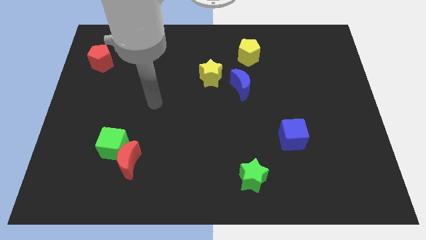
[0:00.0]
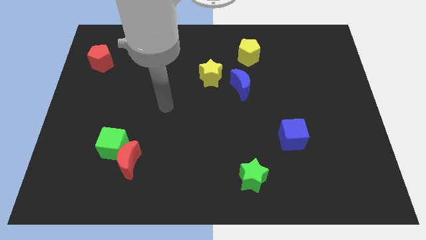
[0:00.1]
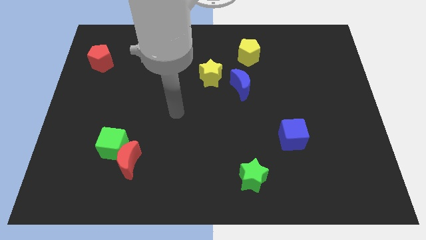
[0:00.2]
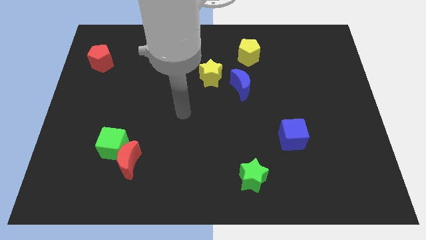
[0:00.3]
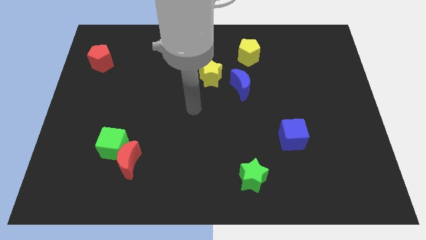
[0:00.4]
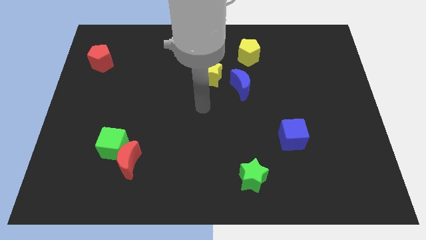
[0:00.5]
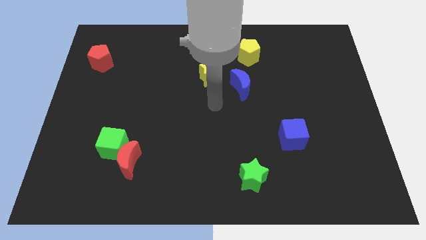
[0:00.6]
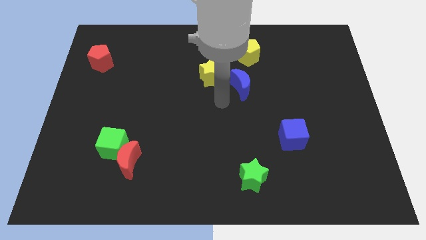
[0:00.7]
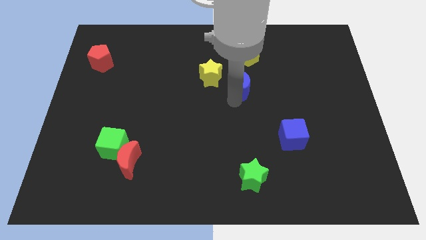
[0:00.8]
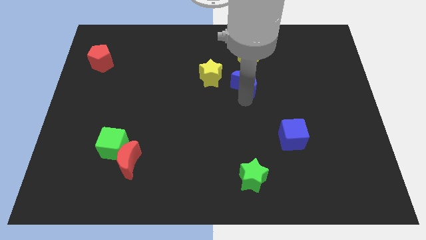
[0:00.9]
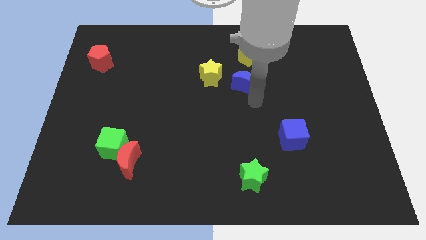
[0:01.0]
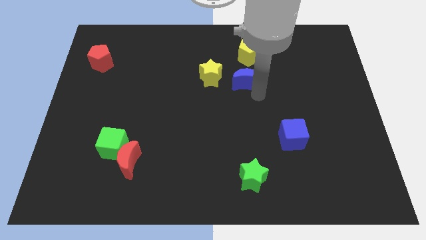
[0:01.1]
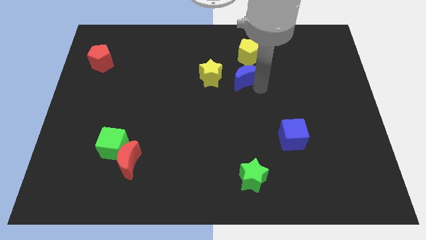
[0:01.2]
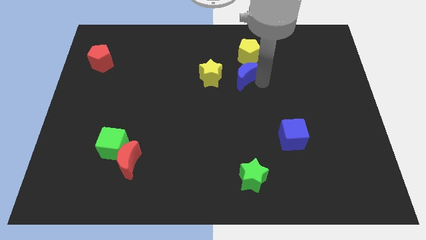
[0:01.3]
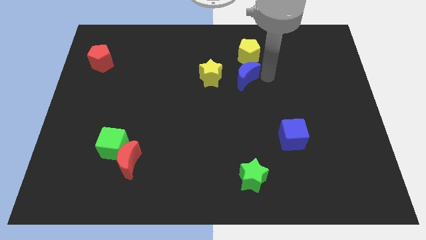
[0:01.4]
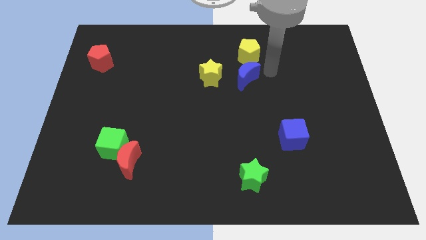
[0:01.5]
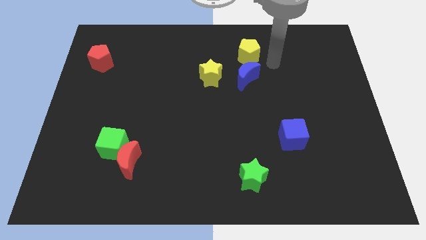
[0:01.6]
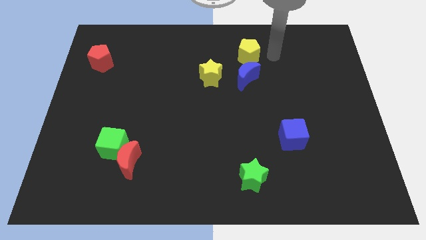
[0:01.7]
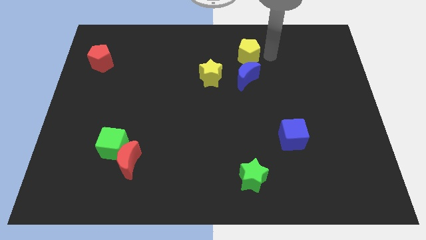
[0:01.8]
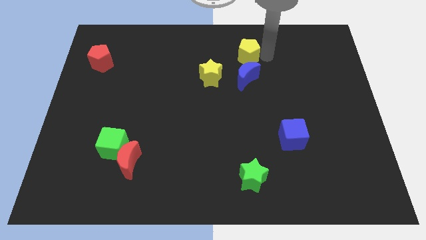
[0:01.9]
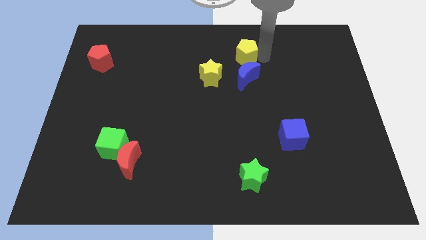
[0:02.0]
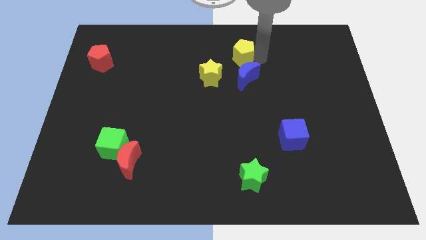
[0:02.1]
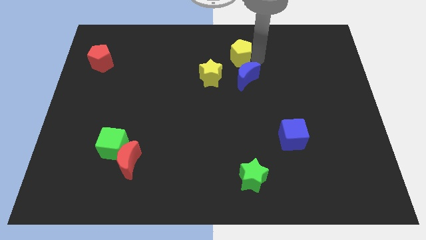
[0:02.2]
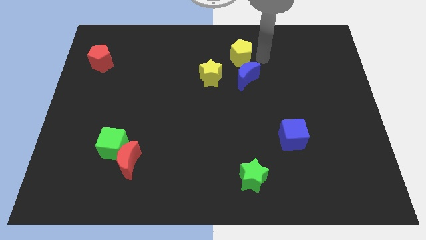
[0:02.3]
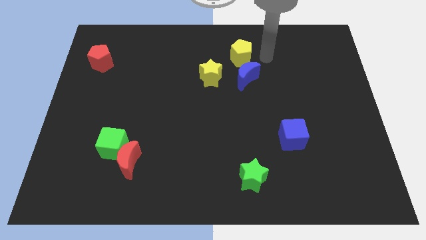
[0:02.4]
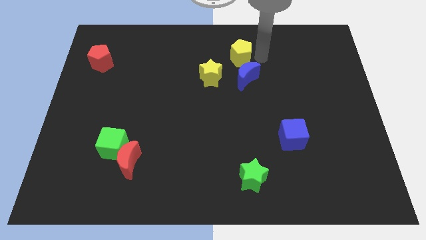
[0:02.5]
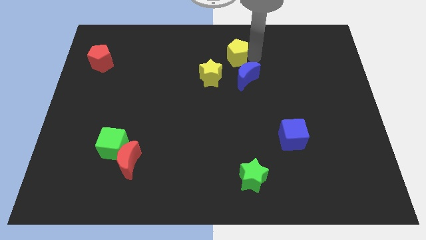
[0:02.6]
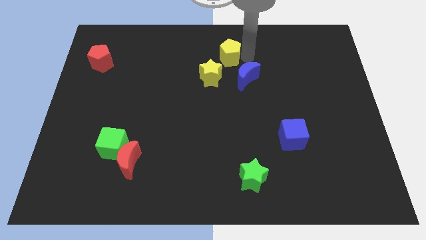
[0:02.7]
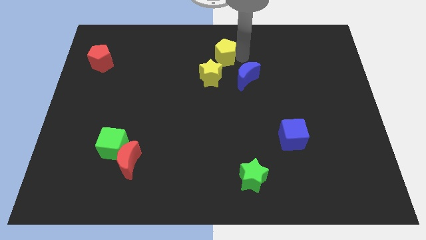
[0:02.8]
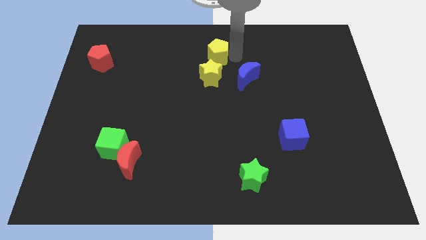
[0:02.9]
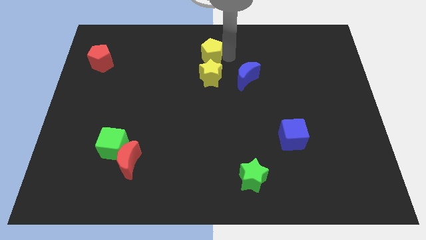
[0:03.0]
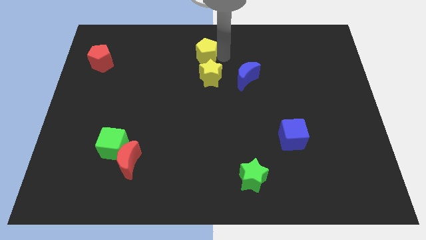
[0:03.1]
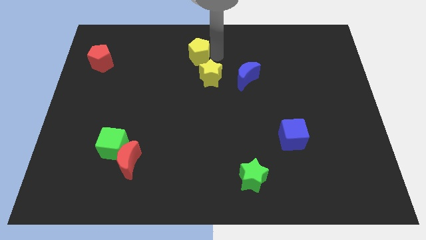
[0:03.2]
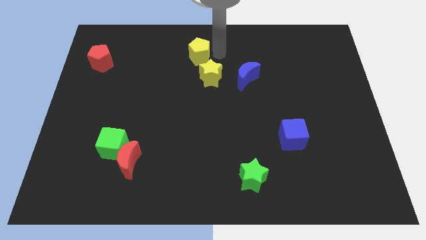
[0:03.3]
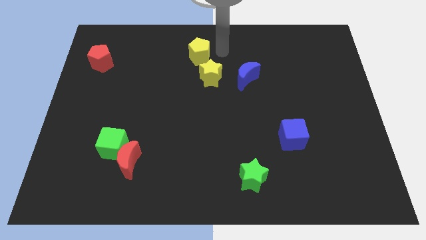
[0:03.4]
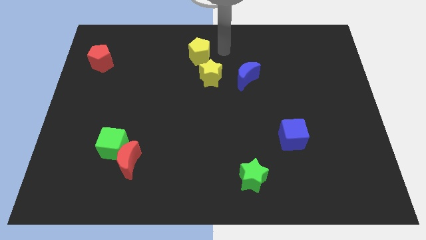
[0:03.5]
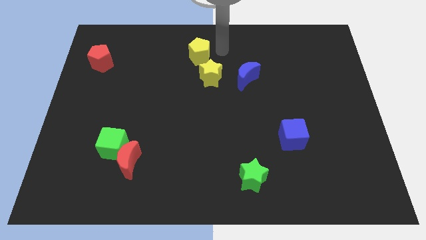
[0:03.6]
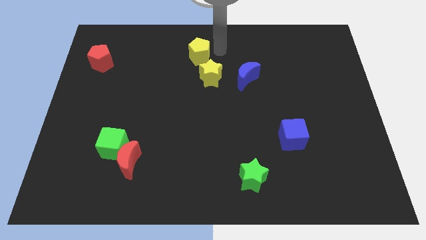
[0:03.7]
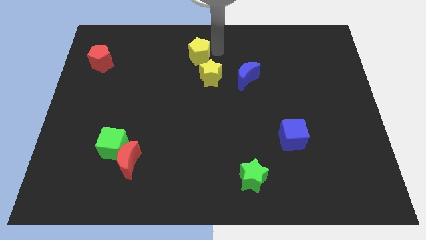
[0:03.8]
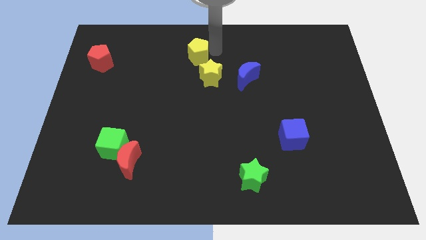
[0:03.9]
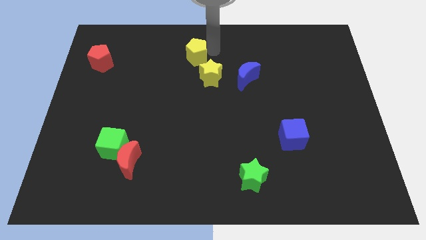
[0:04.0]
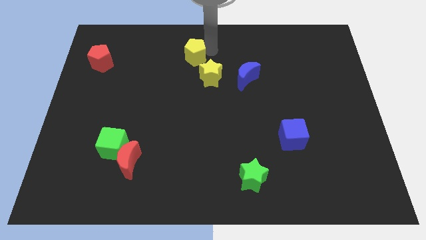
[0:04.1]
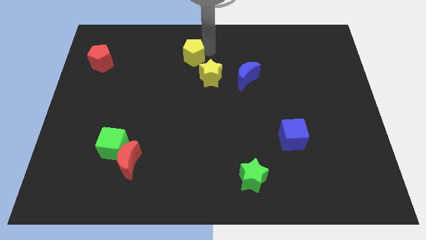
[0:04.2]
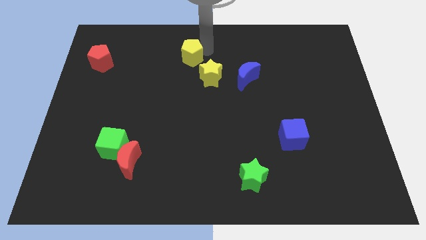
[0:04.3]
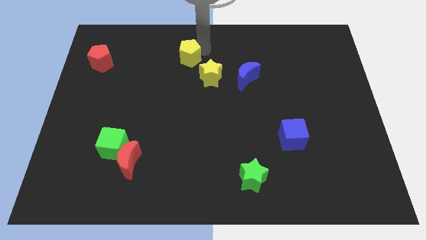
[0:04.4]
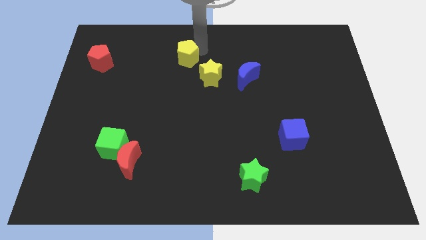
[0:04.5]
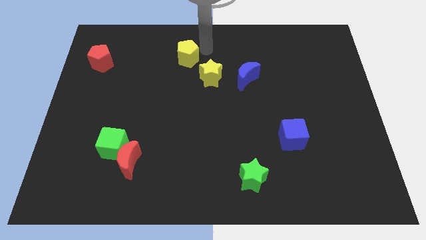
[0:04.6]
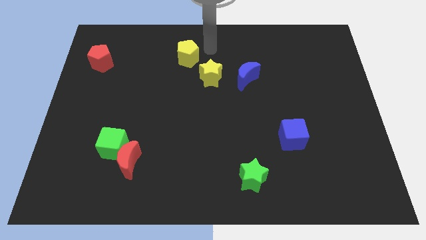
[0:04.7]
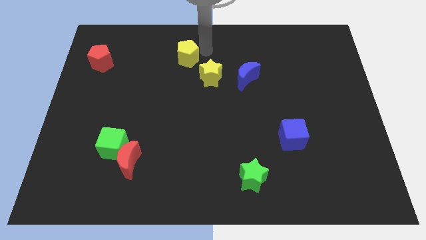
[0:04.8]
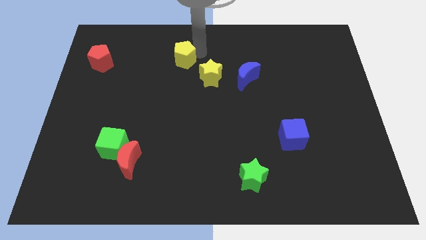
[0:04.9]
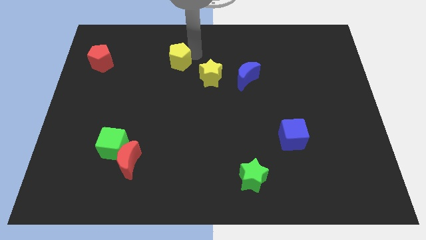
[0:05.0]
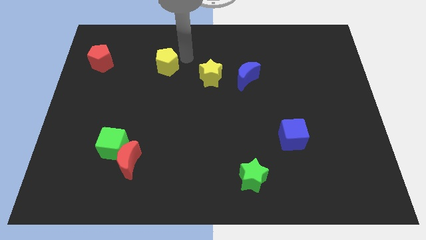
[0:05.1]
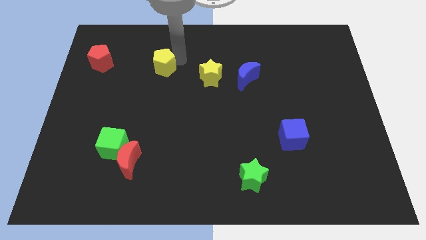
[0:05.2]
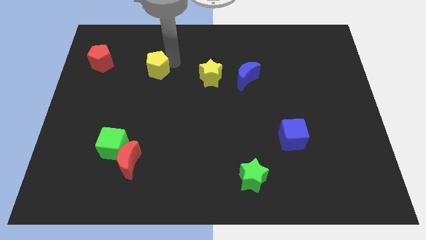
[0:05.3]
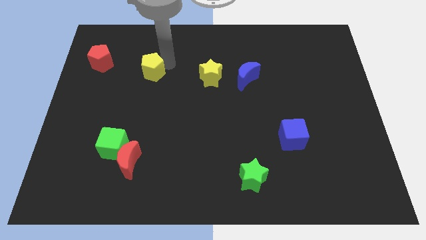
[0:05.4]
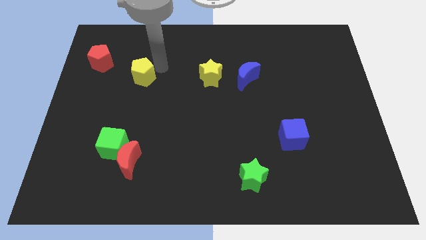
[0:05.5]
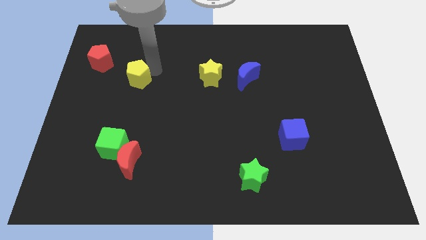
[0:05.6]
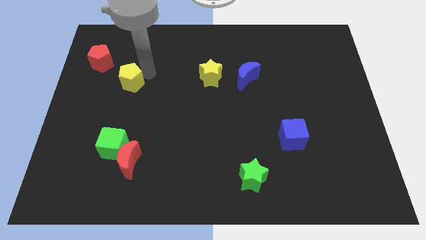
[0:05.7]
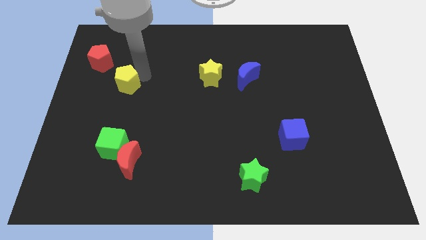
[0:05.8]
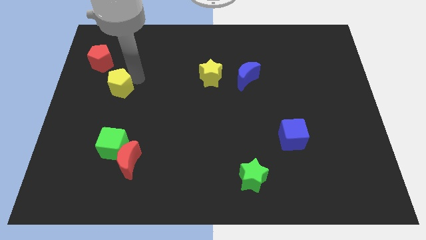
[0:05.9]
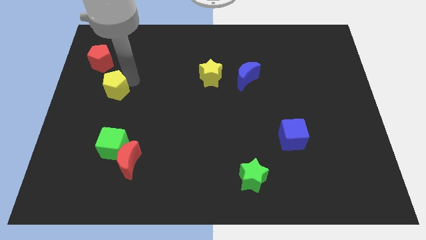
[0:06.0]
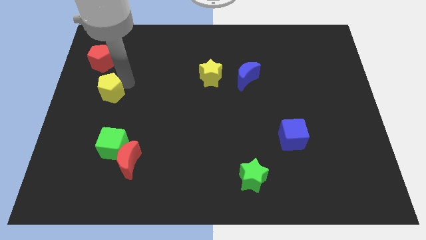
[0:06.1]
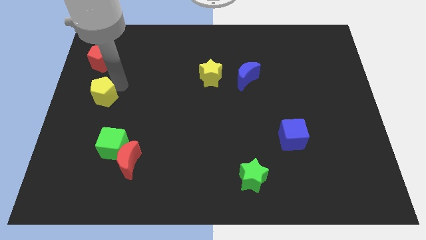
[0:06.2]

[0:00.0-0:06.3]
put the yellow pentagon to the left side of the board

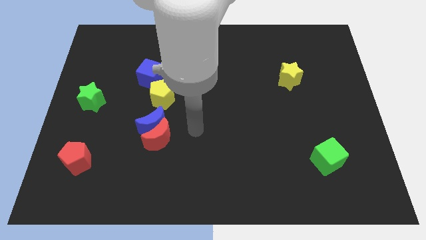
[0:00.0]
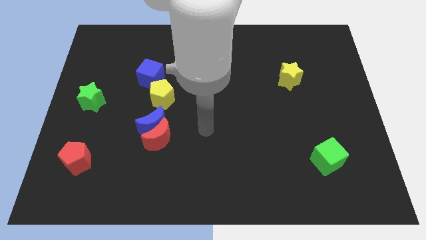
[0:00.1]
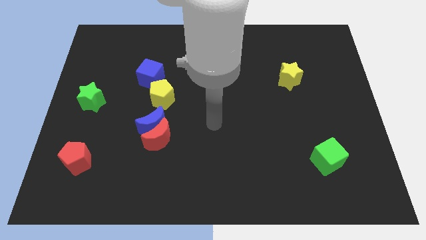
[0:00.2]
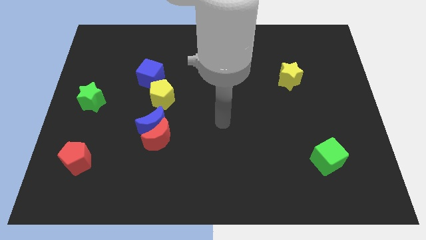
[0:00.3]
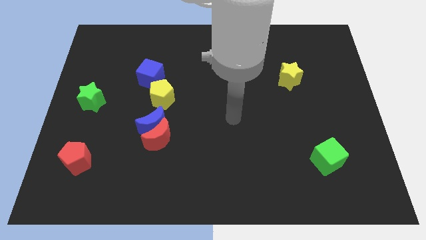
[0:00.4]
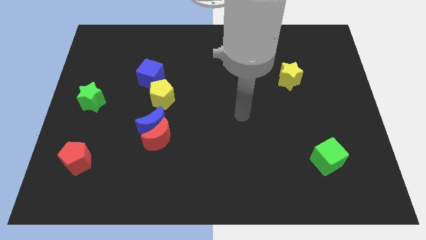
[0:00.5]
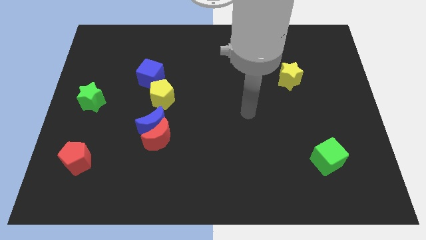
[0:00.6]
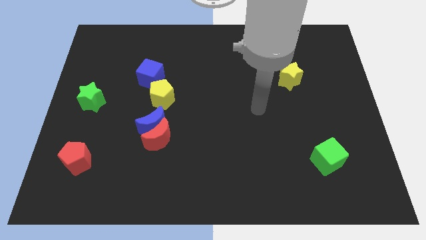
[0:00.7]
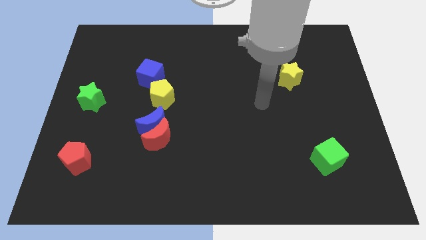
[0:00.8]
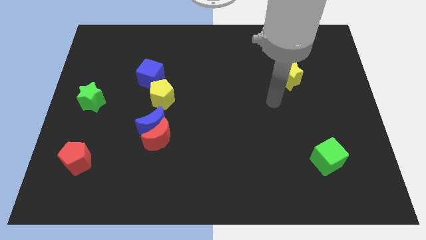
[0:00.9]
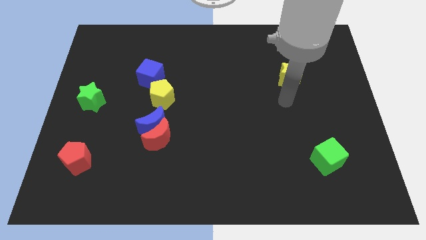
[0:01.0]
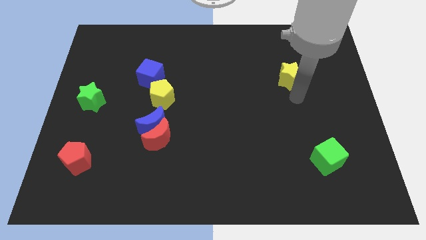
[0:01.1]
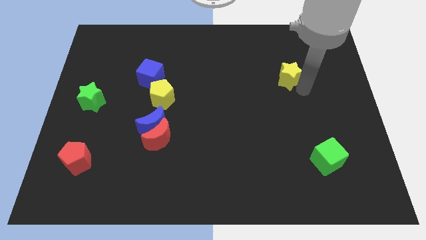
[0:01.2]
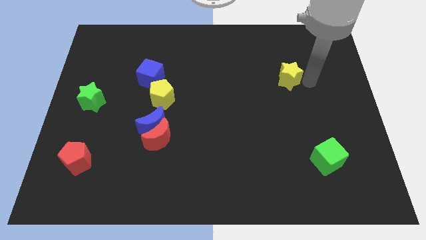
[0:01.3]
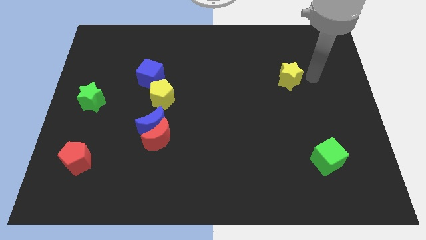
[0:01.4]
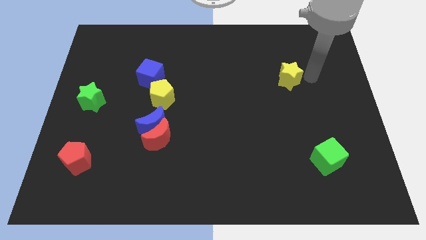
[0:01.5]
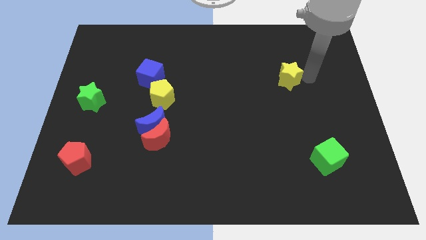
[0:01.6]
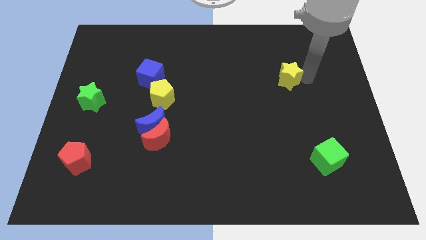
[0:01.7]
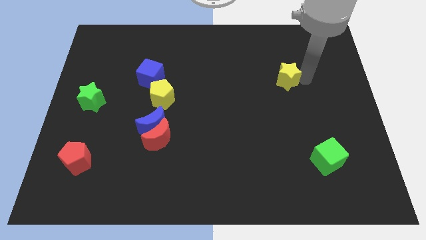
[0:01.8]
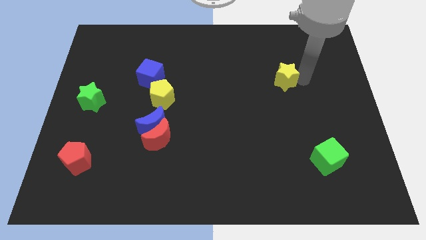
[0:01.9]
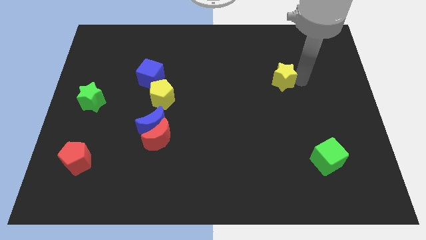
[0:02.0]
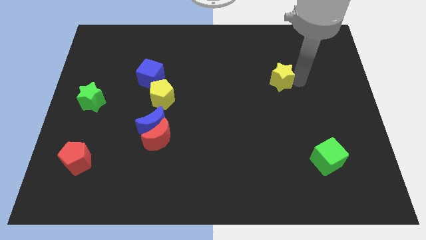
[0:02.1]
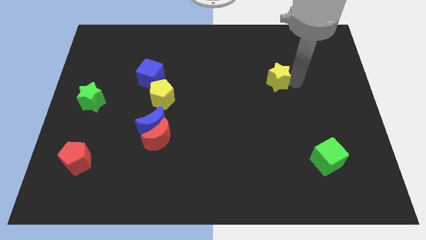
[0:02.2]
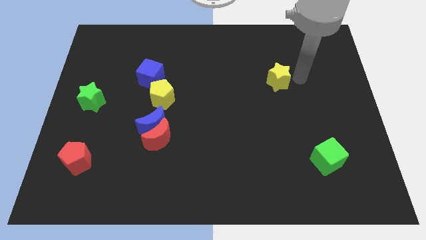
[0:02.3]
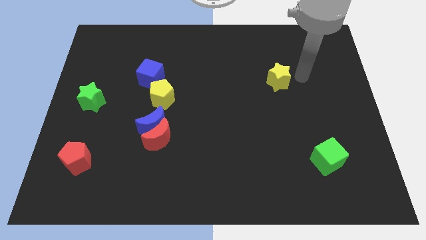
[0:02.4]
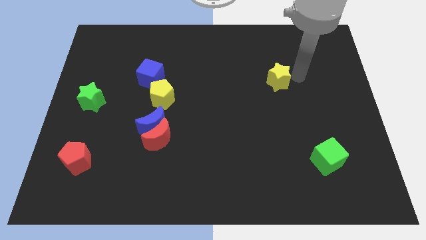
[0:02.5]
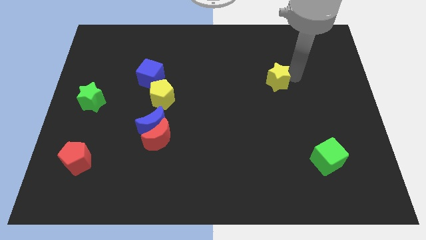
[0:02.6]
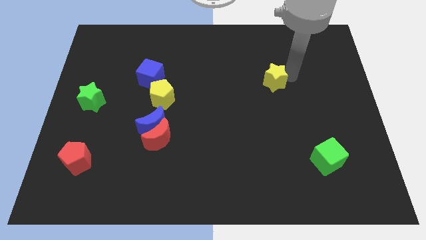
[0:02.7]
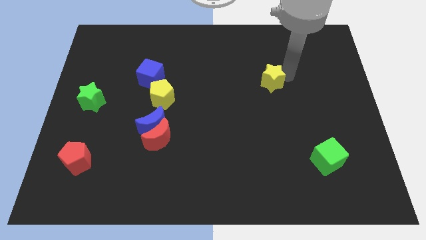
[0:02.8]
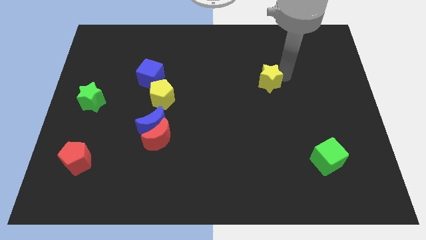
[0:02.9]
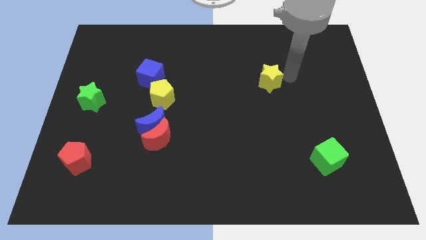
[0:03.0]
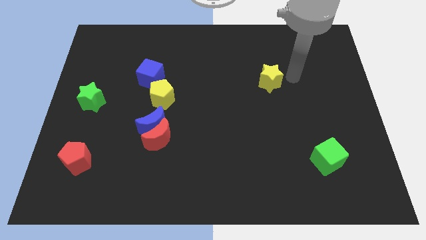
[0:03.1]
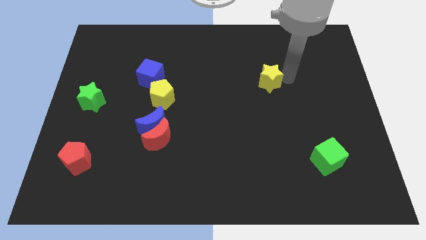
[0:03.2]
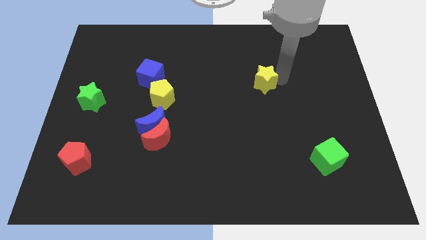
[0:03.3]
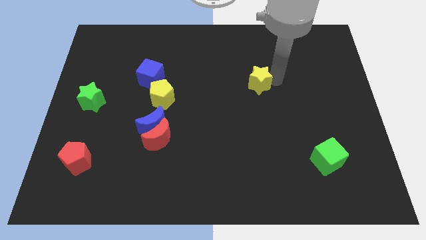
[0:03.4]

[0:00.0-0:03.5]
move the yellow star to the center of the board
